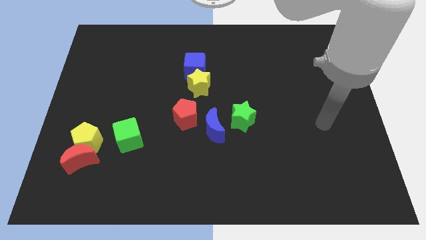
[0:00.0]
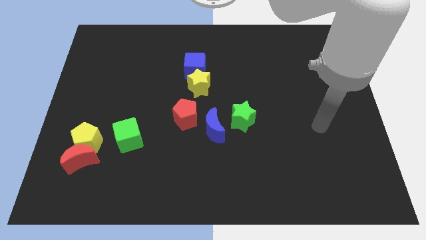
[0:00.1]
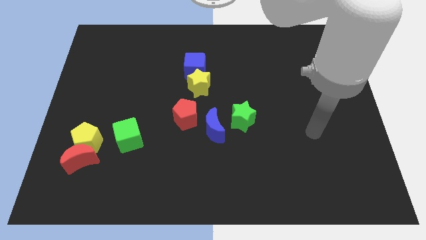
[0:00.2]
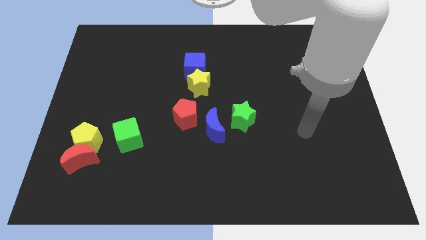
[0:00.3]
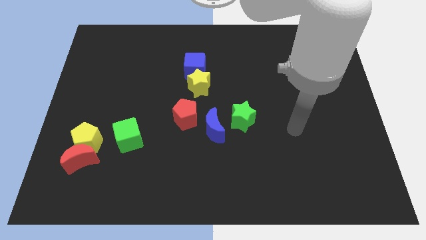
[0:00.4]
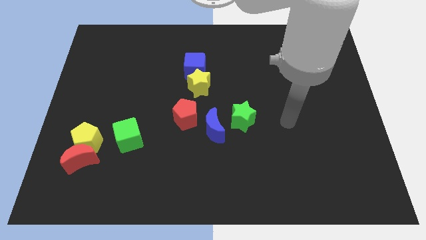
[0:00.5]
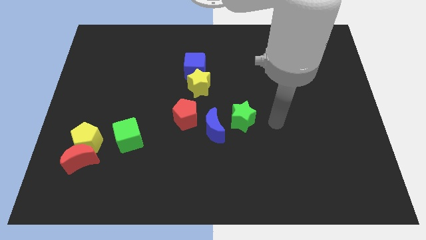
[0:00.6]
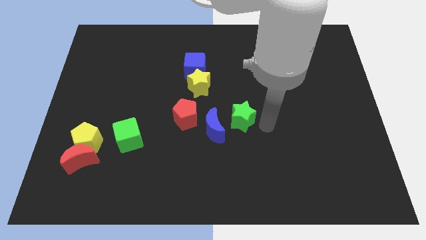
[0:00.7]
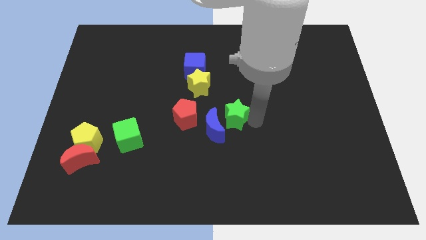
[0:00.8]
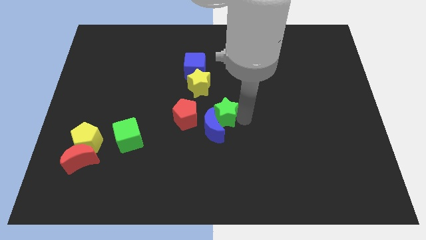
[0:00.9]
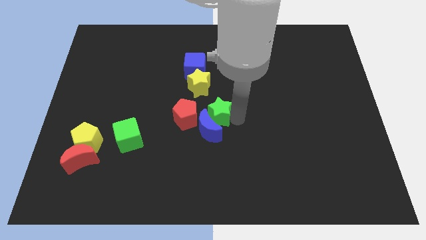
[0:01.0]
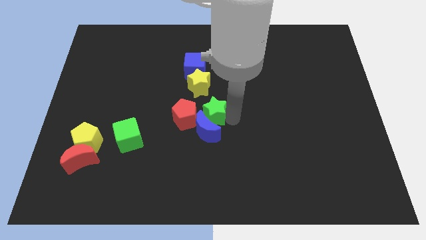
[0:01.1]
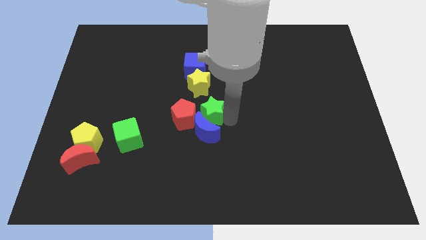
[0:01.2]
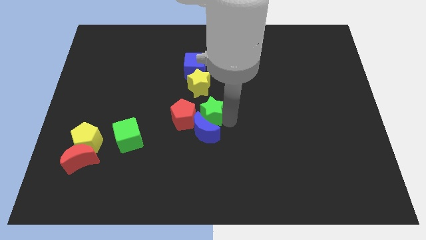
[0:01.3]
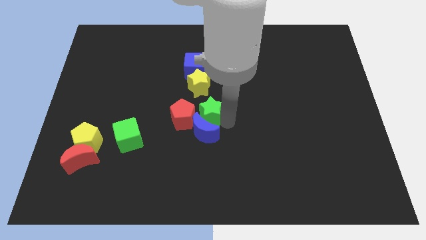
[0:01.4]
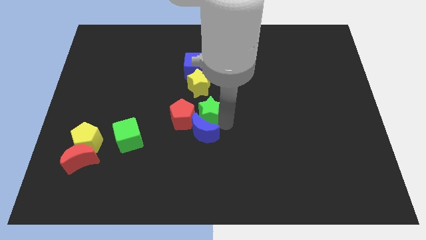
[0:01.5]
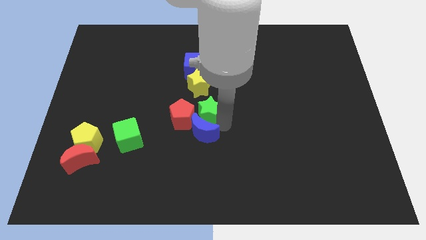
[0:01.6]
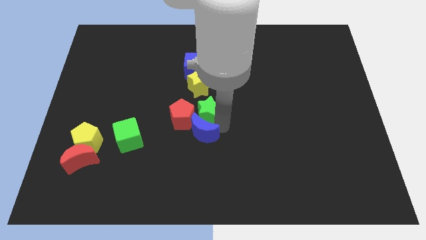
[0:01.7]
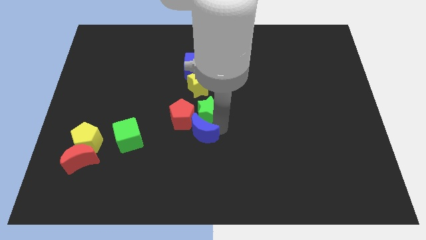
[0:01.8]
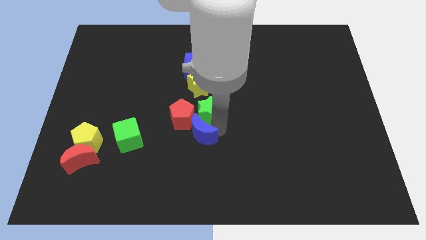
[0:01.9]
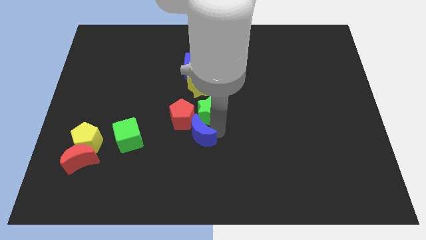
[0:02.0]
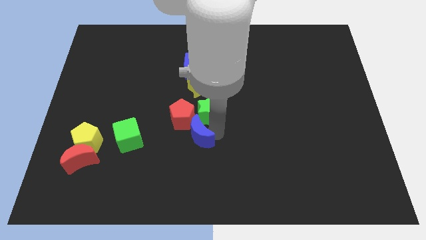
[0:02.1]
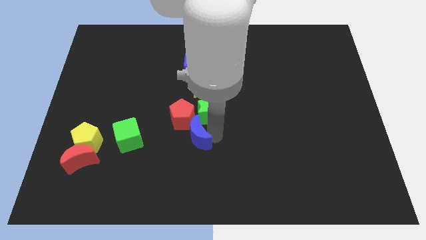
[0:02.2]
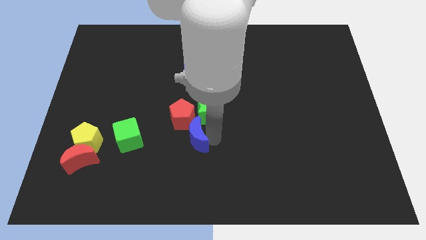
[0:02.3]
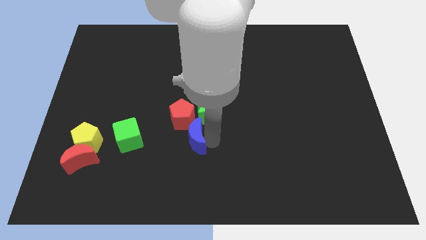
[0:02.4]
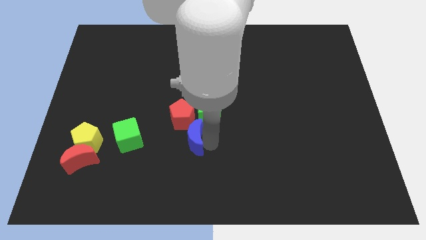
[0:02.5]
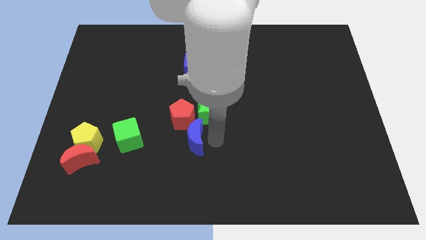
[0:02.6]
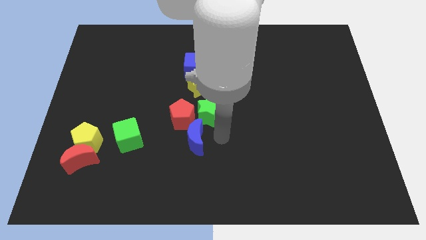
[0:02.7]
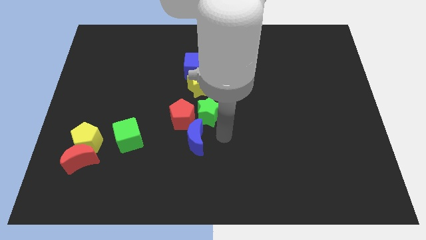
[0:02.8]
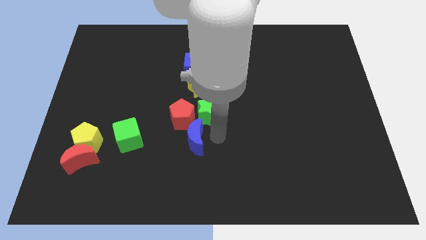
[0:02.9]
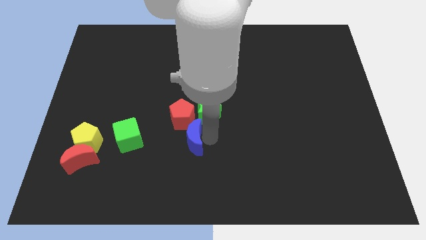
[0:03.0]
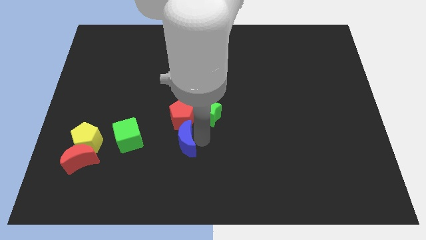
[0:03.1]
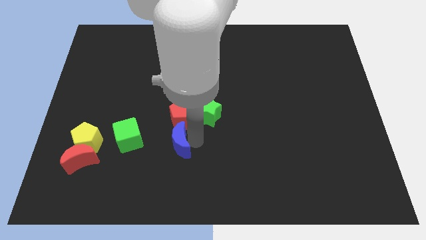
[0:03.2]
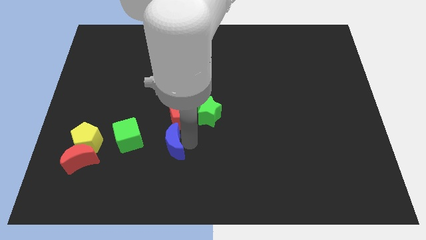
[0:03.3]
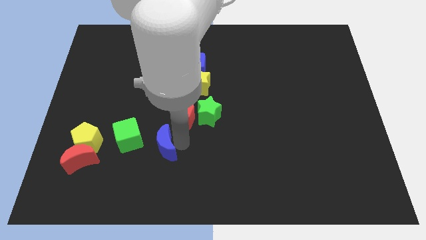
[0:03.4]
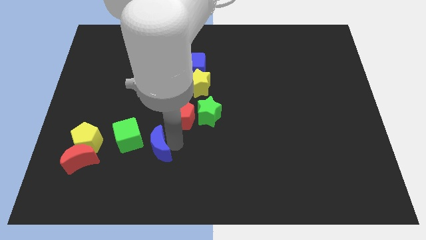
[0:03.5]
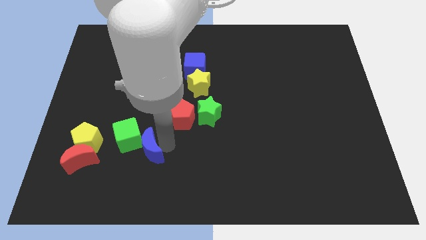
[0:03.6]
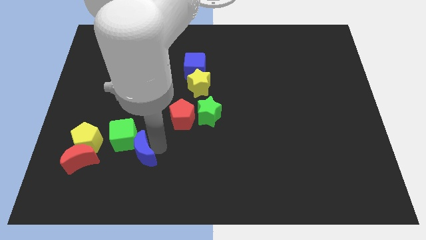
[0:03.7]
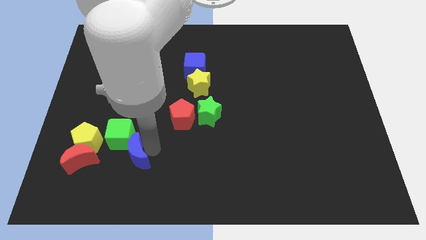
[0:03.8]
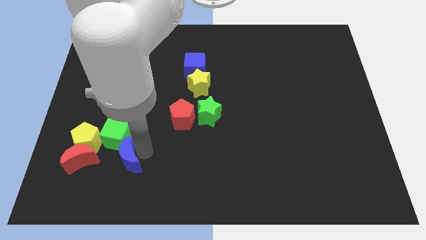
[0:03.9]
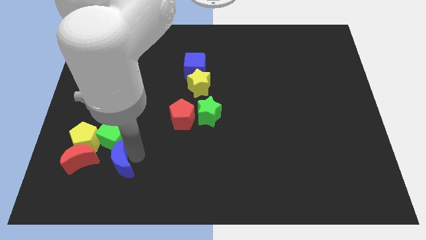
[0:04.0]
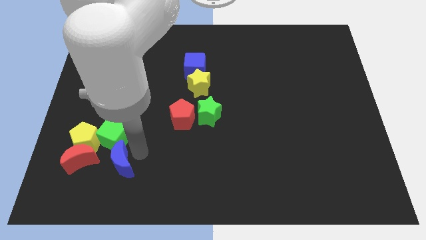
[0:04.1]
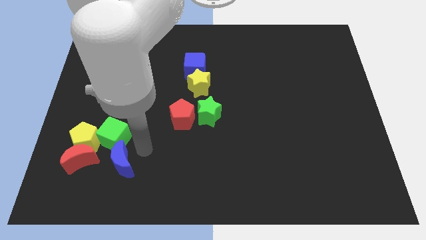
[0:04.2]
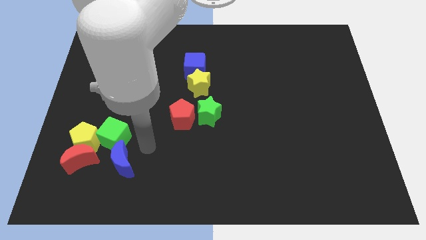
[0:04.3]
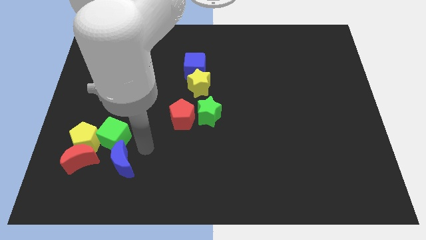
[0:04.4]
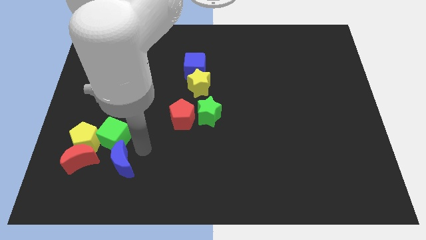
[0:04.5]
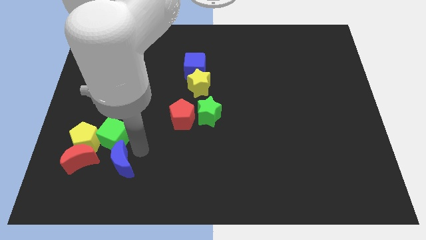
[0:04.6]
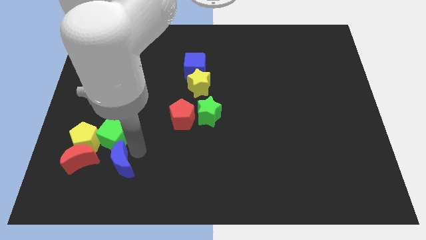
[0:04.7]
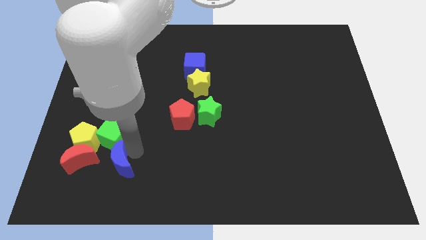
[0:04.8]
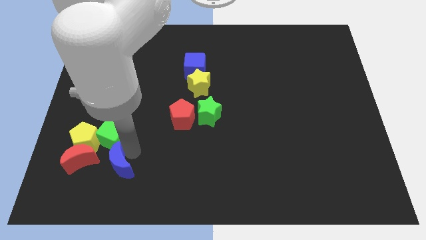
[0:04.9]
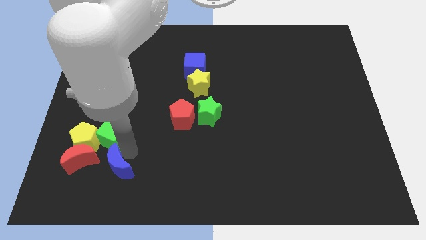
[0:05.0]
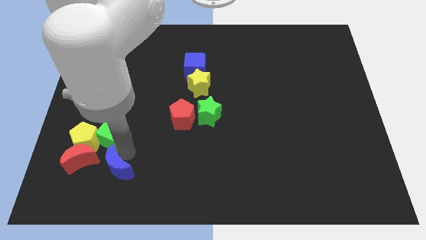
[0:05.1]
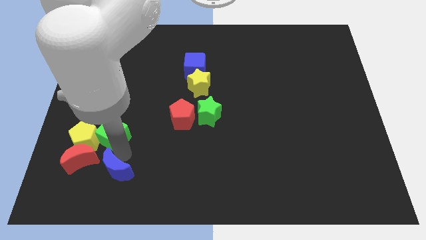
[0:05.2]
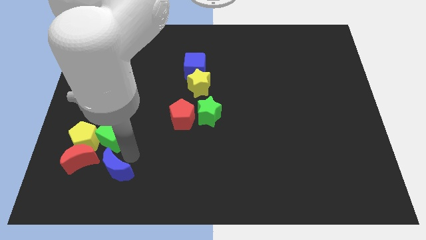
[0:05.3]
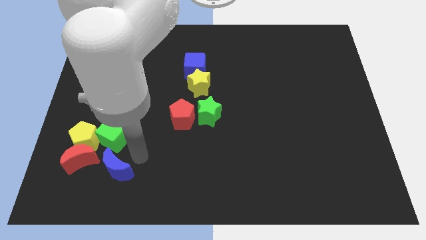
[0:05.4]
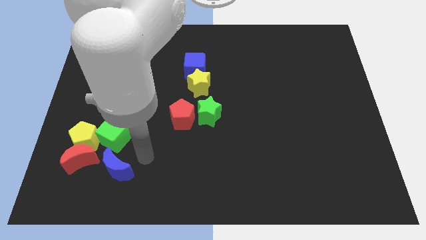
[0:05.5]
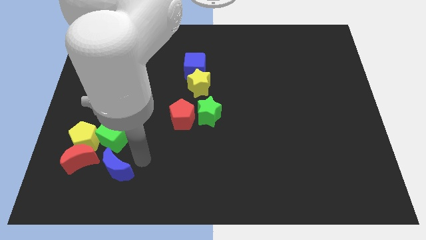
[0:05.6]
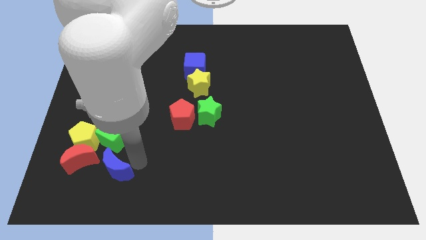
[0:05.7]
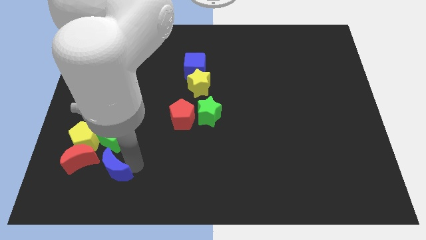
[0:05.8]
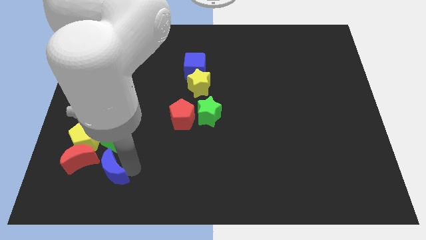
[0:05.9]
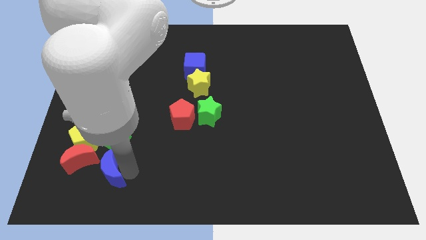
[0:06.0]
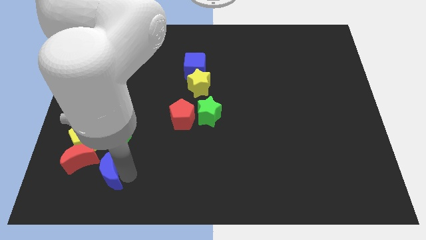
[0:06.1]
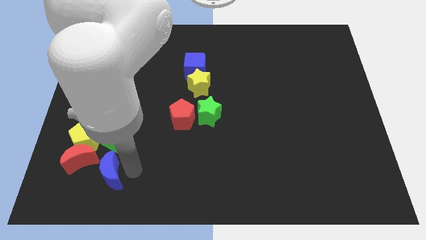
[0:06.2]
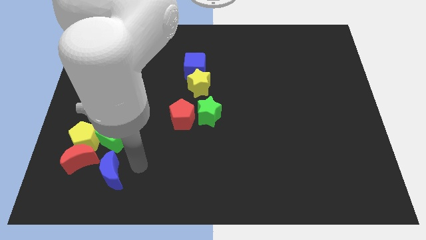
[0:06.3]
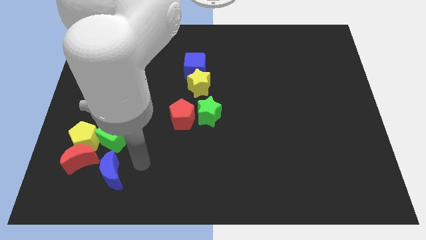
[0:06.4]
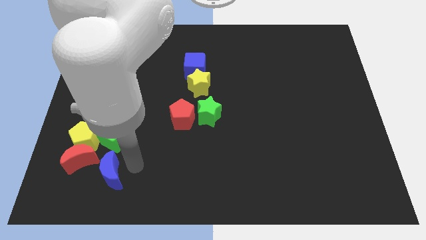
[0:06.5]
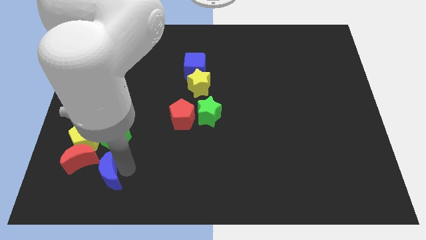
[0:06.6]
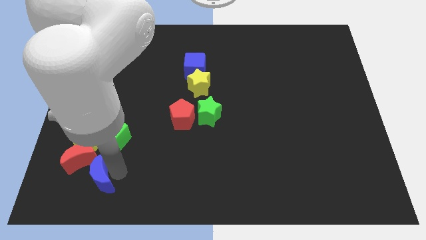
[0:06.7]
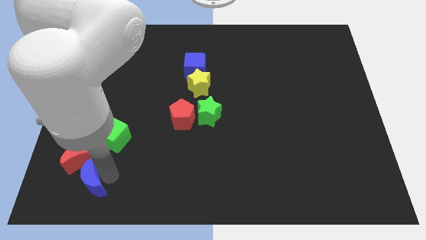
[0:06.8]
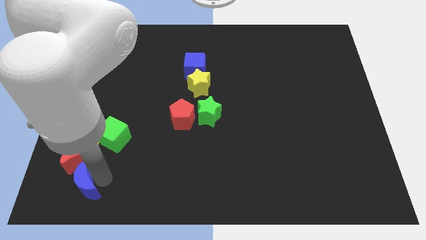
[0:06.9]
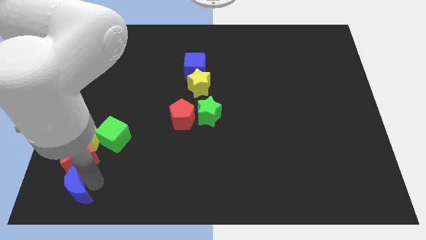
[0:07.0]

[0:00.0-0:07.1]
move the blue moon to the bottom left
